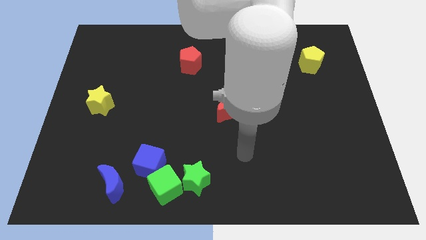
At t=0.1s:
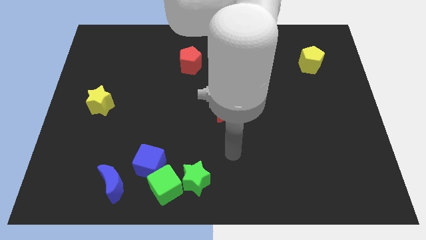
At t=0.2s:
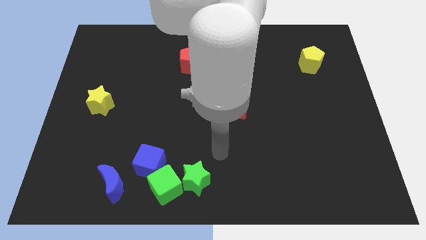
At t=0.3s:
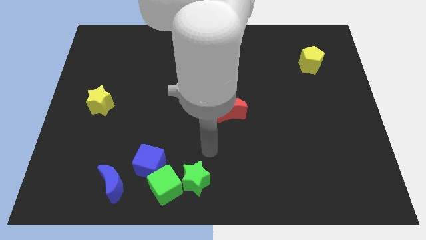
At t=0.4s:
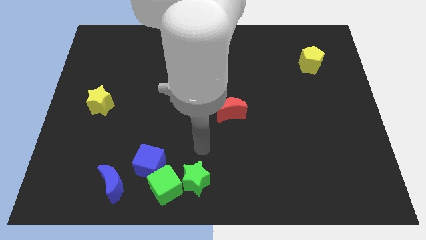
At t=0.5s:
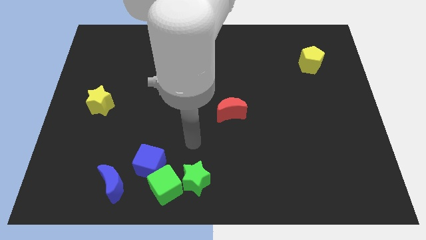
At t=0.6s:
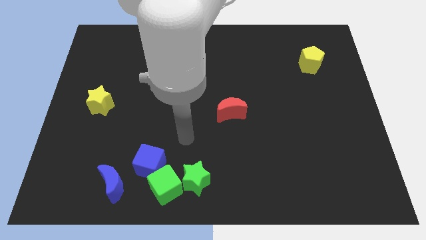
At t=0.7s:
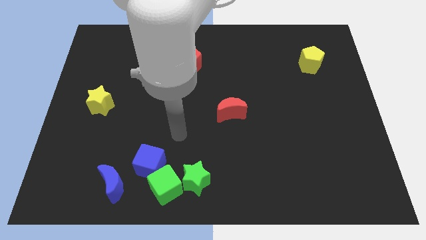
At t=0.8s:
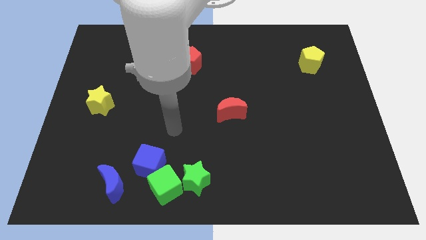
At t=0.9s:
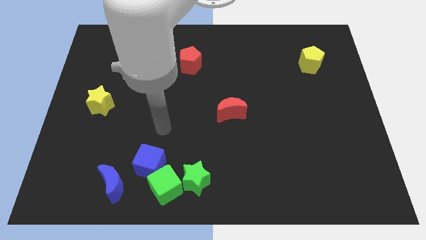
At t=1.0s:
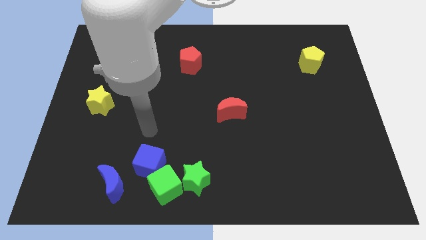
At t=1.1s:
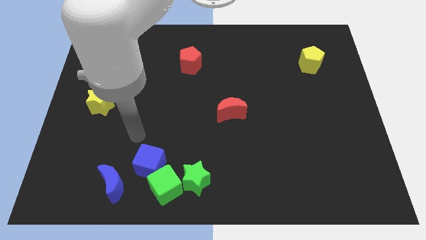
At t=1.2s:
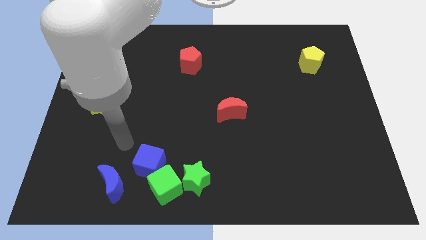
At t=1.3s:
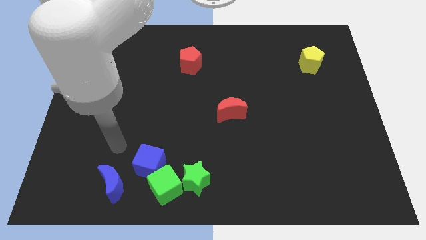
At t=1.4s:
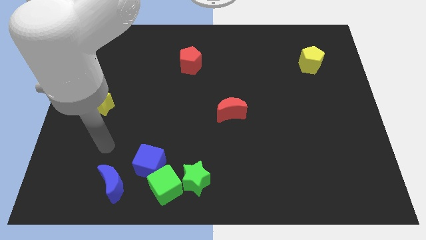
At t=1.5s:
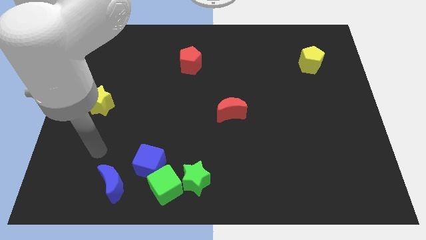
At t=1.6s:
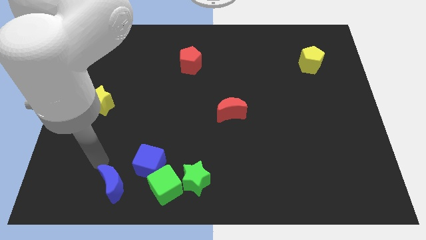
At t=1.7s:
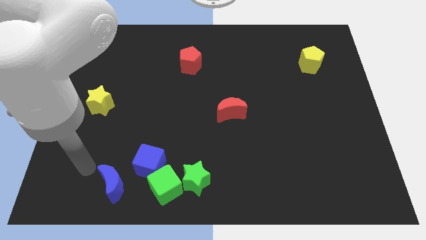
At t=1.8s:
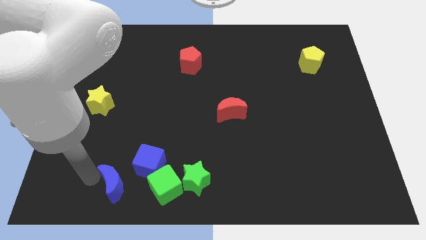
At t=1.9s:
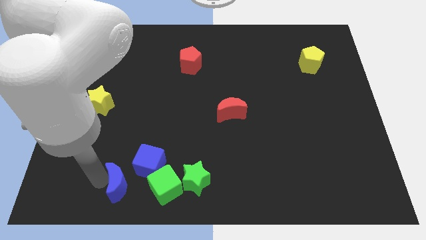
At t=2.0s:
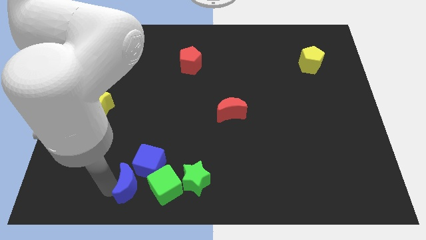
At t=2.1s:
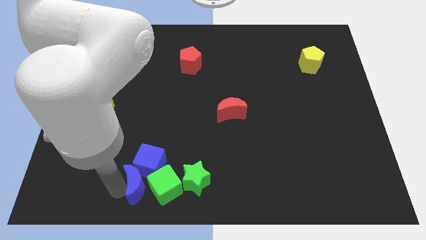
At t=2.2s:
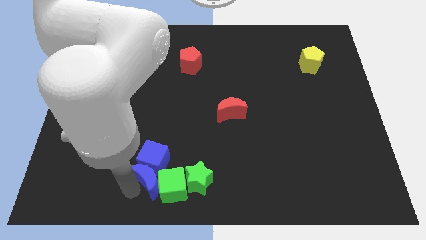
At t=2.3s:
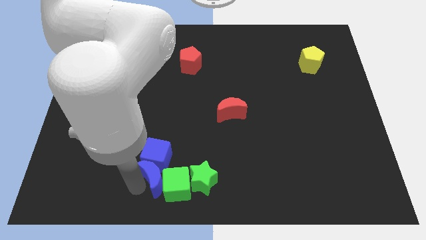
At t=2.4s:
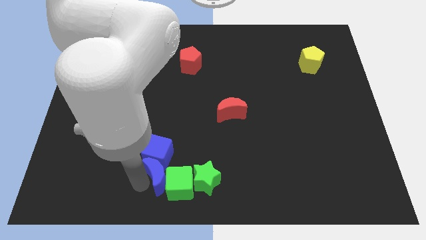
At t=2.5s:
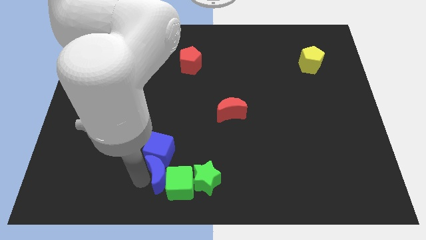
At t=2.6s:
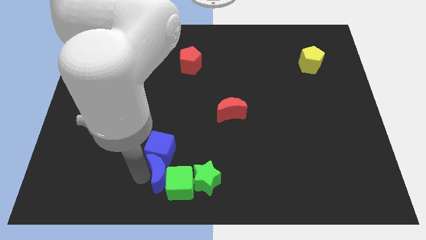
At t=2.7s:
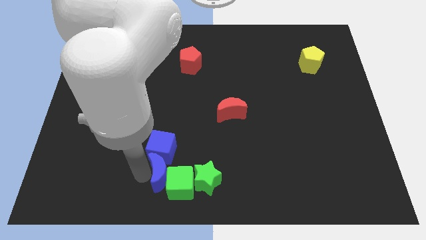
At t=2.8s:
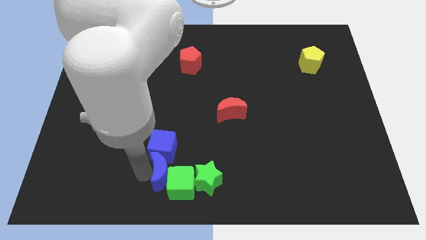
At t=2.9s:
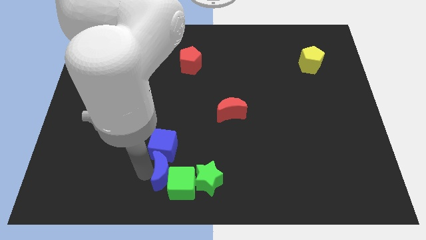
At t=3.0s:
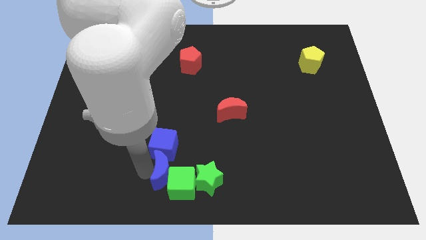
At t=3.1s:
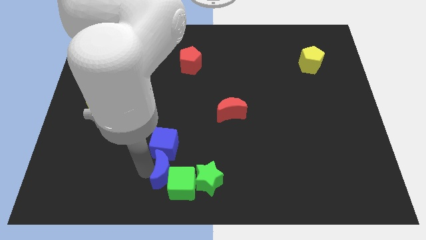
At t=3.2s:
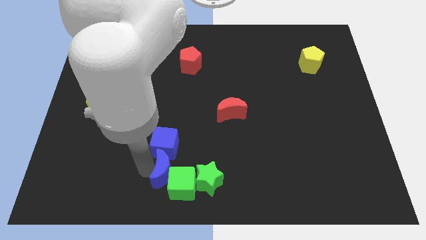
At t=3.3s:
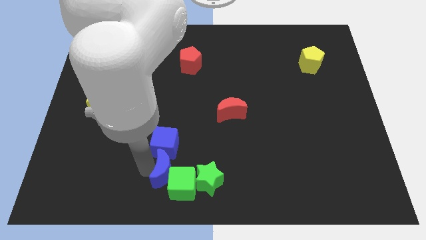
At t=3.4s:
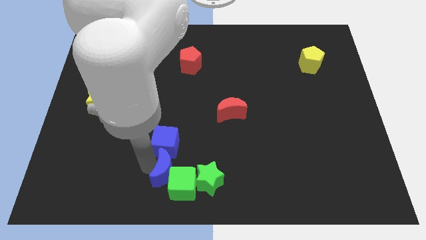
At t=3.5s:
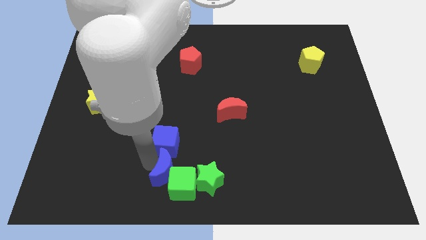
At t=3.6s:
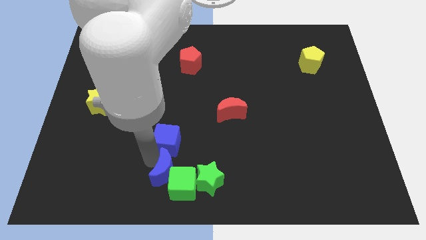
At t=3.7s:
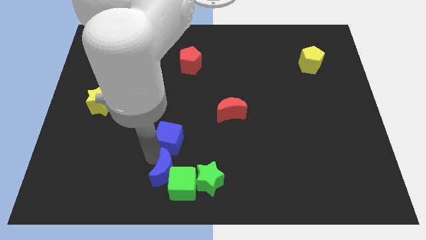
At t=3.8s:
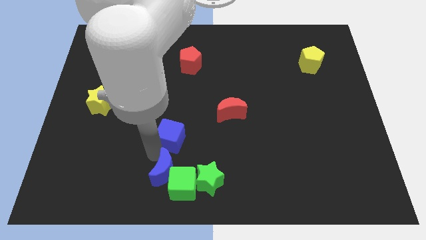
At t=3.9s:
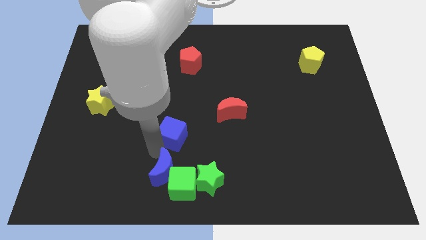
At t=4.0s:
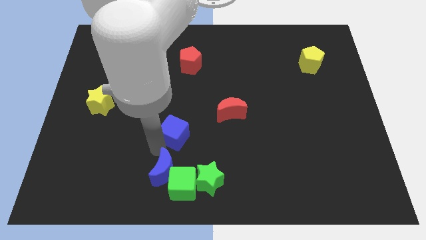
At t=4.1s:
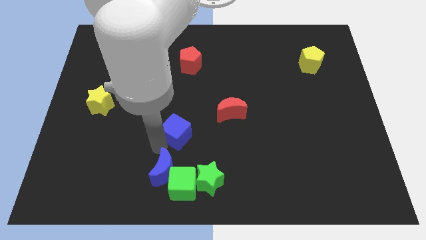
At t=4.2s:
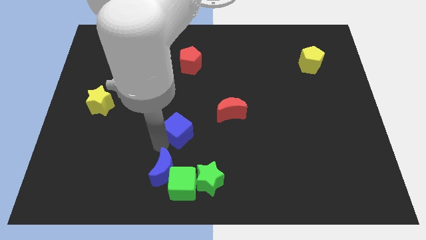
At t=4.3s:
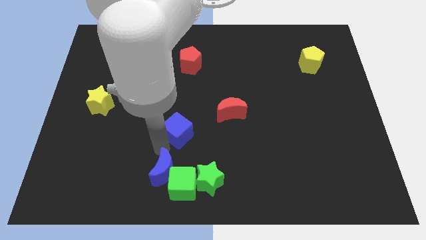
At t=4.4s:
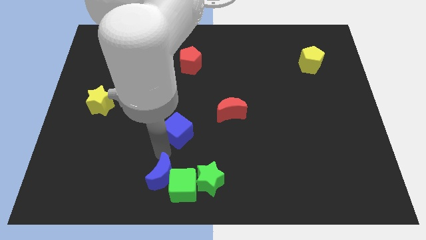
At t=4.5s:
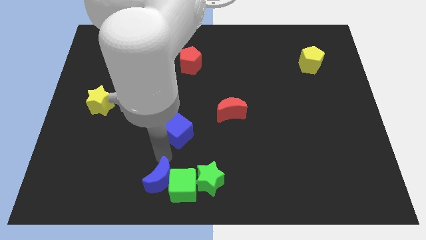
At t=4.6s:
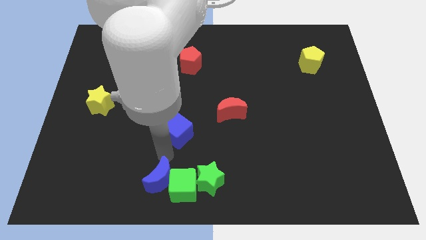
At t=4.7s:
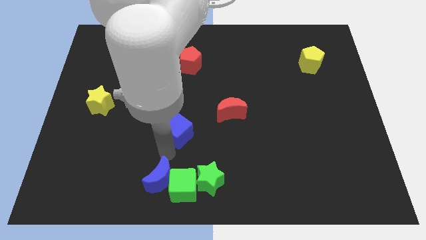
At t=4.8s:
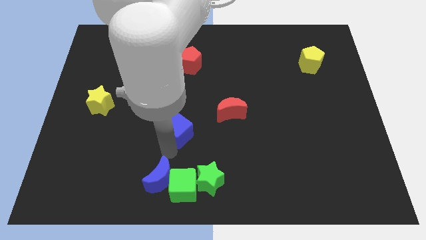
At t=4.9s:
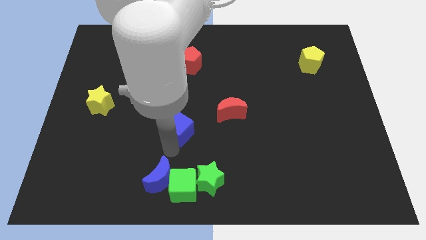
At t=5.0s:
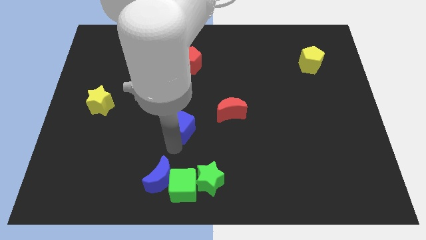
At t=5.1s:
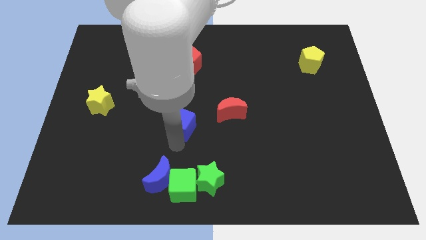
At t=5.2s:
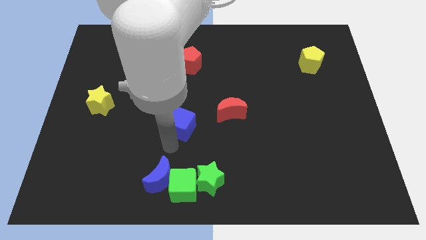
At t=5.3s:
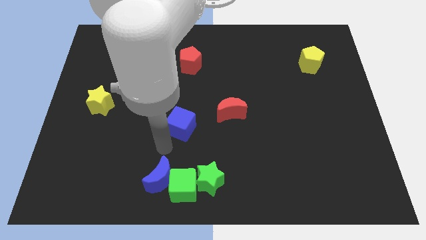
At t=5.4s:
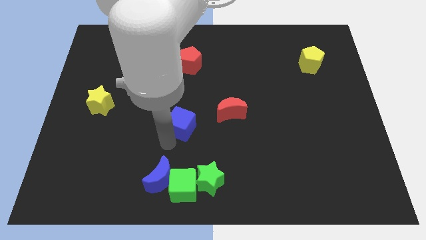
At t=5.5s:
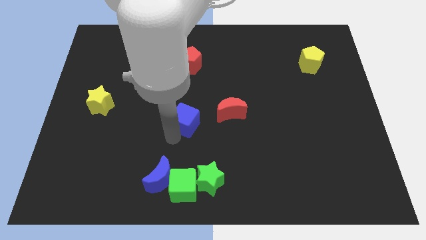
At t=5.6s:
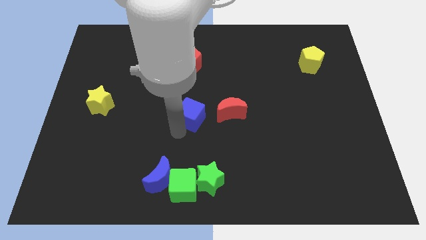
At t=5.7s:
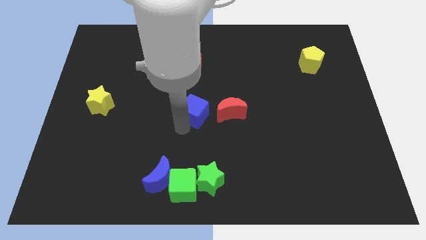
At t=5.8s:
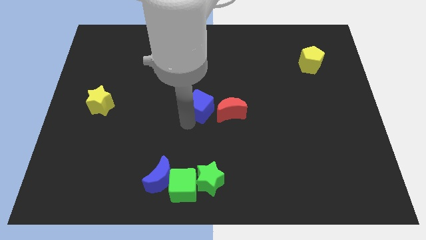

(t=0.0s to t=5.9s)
put the blue cube to the top left side of the red moon

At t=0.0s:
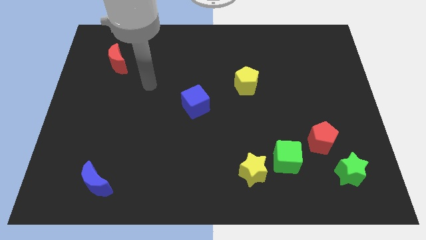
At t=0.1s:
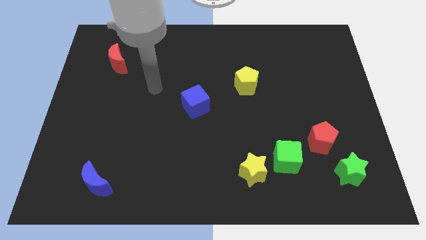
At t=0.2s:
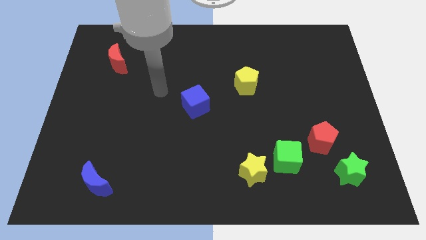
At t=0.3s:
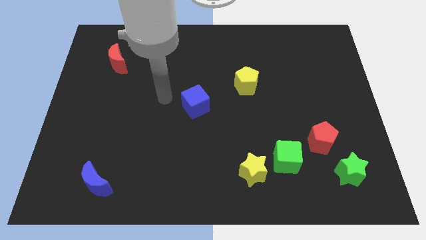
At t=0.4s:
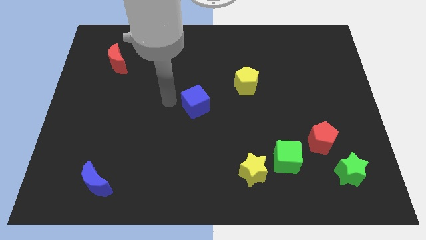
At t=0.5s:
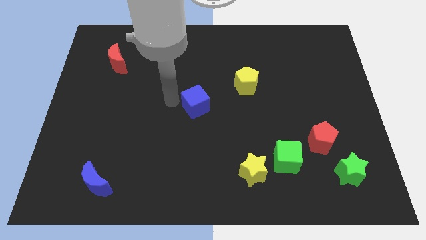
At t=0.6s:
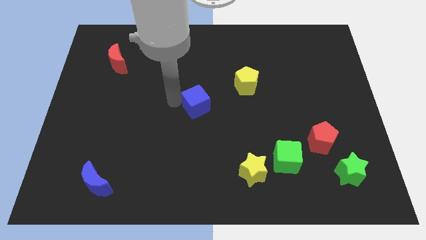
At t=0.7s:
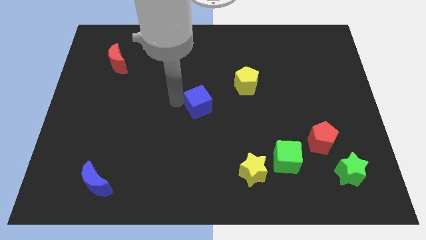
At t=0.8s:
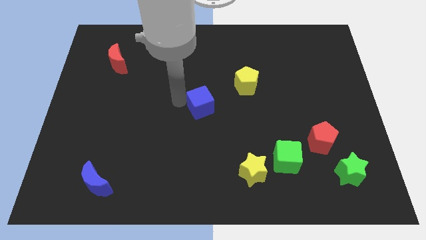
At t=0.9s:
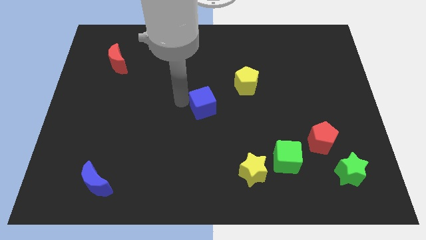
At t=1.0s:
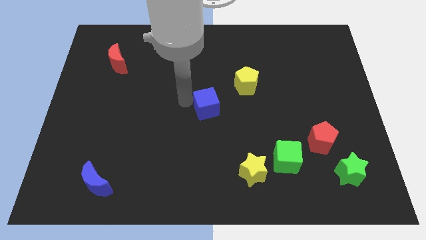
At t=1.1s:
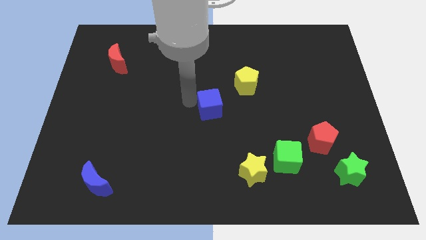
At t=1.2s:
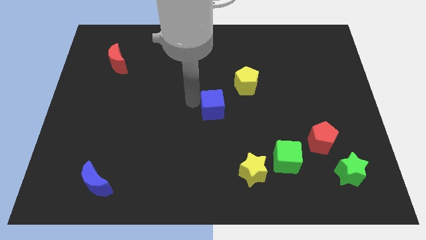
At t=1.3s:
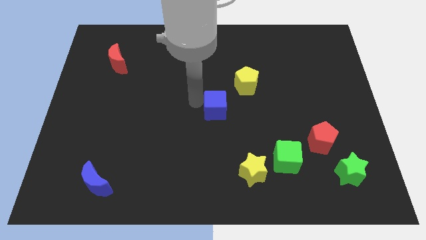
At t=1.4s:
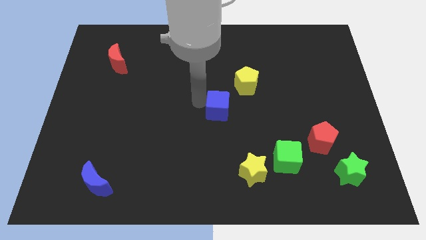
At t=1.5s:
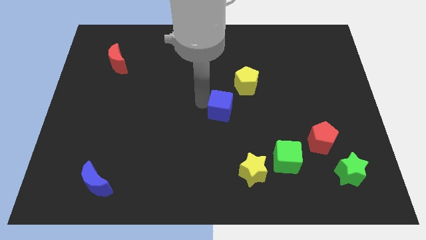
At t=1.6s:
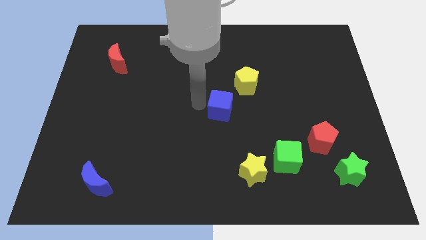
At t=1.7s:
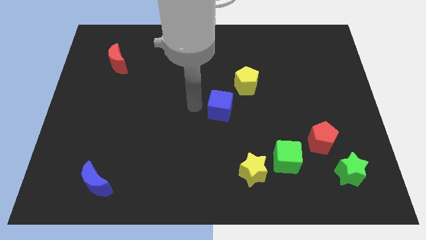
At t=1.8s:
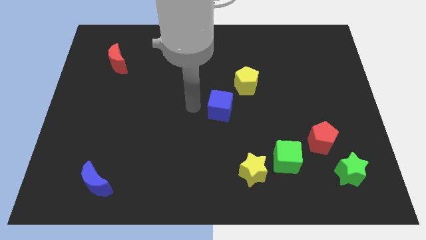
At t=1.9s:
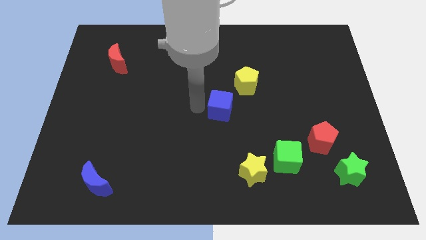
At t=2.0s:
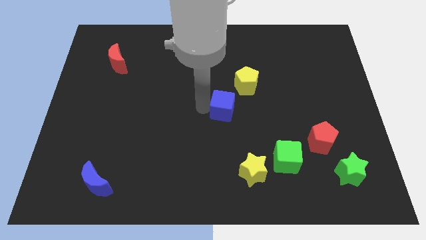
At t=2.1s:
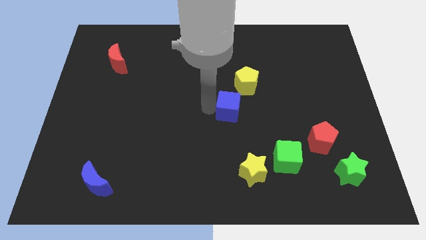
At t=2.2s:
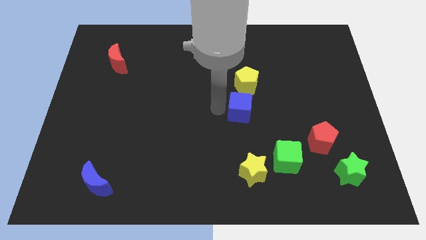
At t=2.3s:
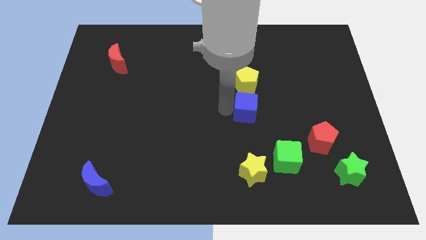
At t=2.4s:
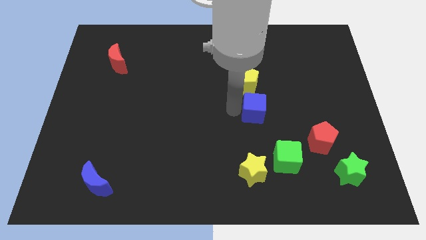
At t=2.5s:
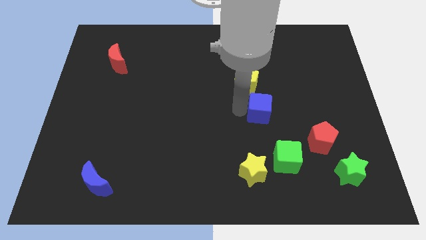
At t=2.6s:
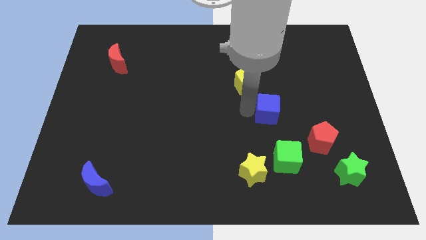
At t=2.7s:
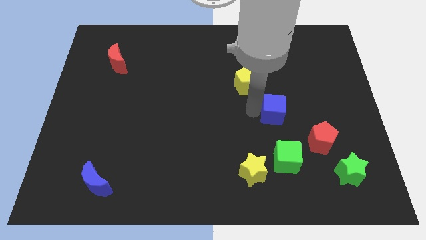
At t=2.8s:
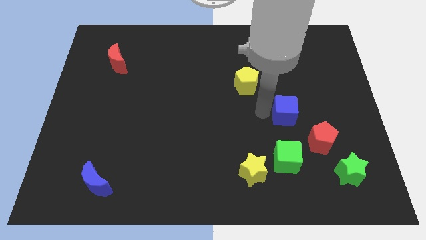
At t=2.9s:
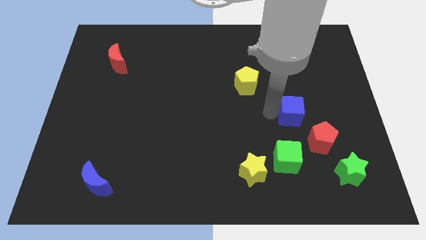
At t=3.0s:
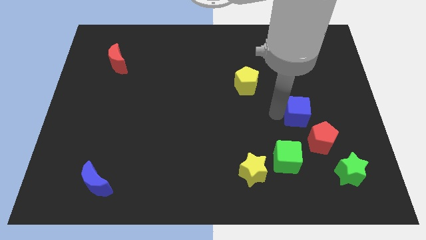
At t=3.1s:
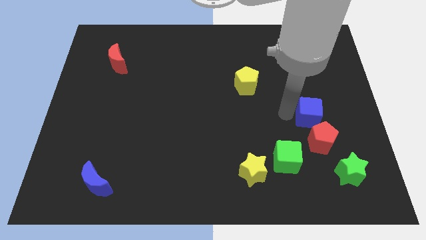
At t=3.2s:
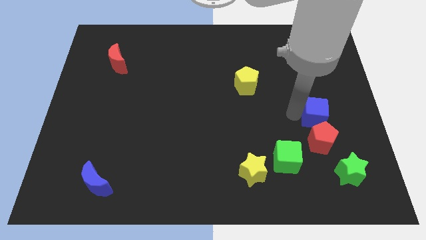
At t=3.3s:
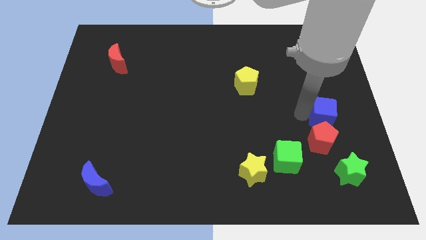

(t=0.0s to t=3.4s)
move the blue cube to the top right side of the red pentagon
